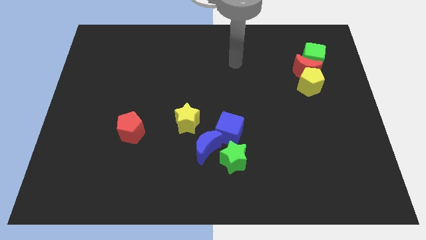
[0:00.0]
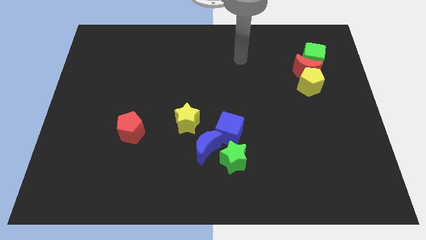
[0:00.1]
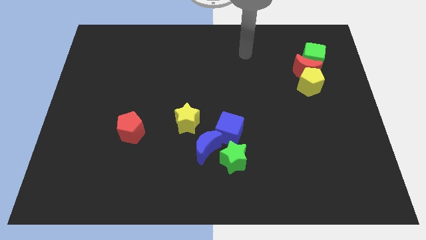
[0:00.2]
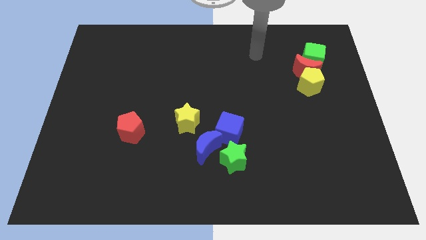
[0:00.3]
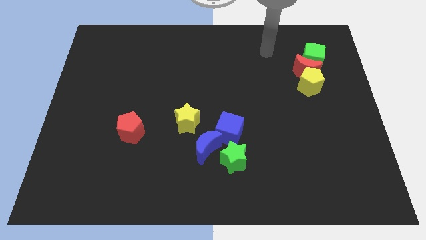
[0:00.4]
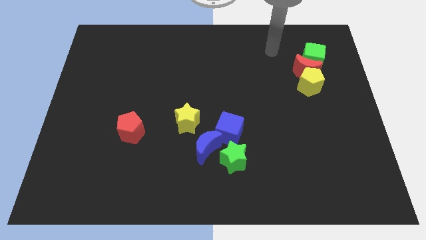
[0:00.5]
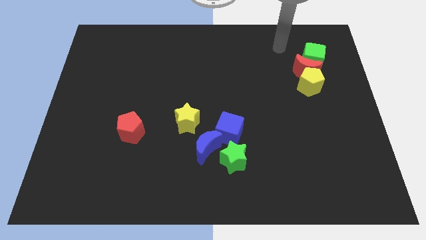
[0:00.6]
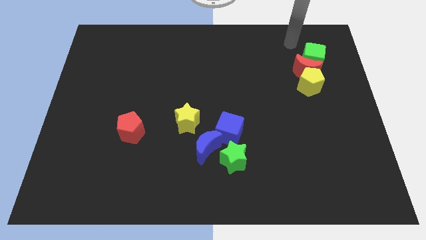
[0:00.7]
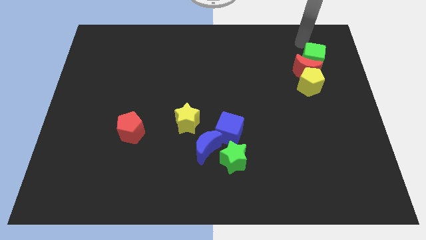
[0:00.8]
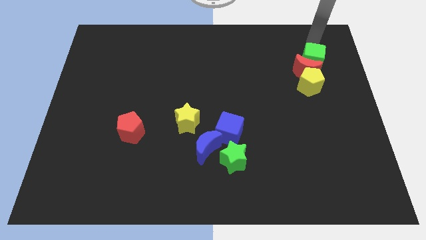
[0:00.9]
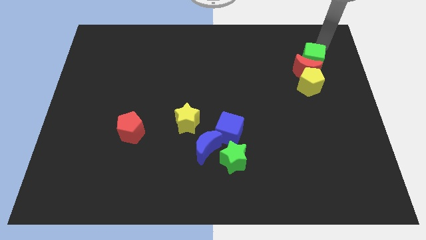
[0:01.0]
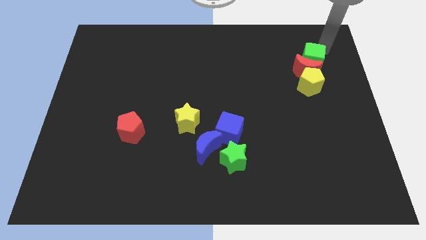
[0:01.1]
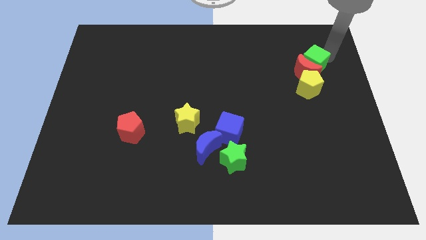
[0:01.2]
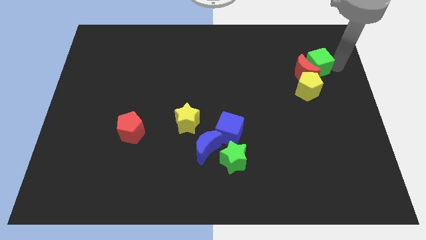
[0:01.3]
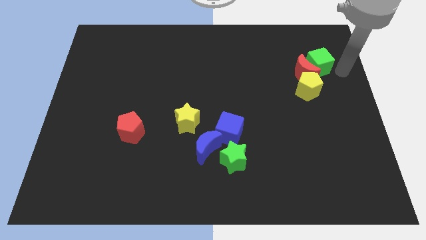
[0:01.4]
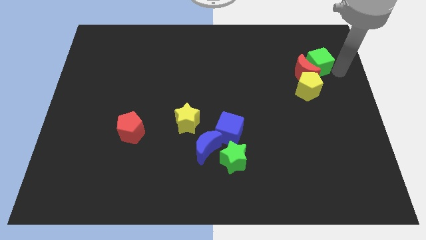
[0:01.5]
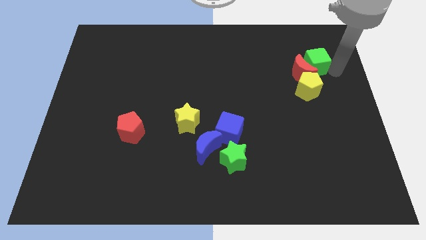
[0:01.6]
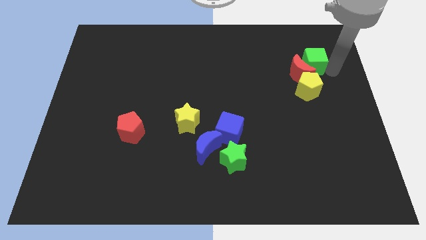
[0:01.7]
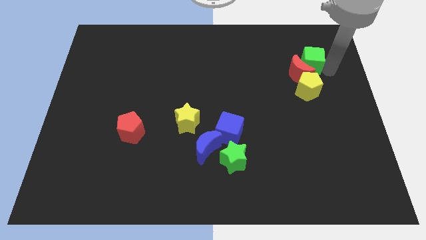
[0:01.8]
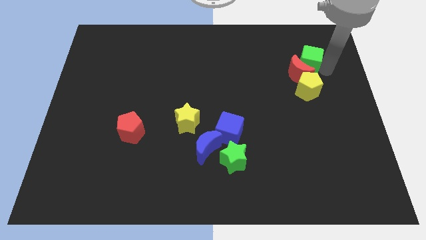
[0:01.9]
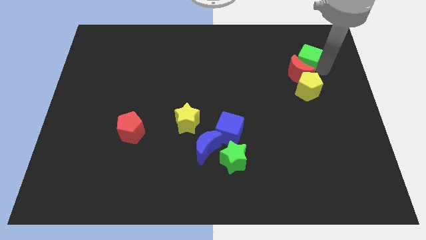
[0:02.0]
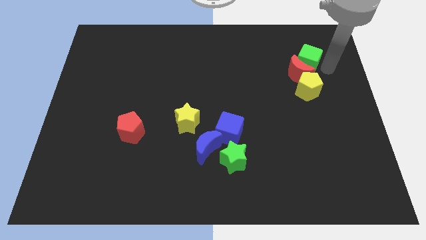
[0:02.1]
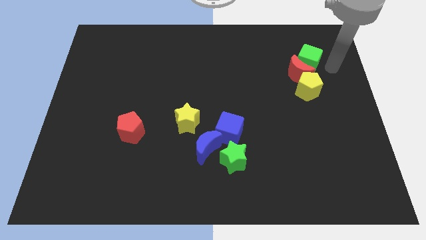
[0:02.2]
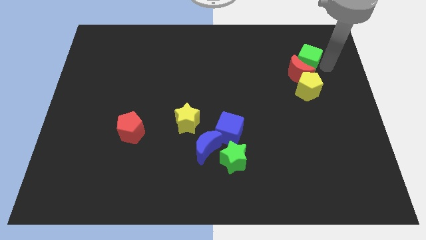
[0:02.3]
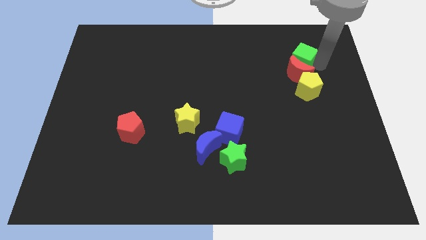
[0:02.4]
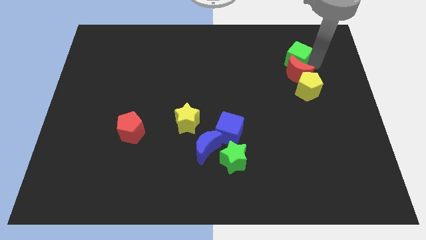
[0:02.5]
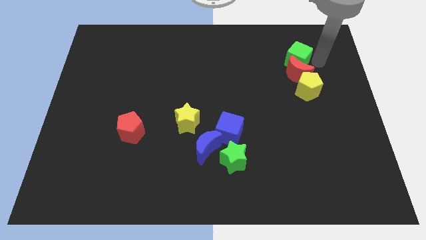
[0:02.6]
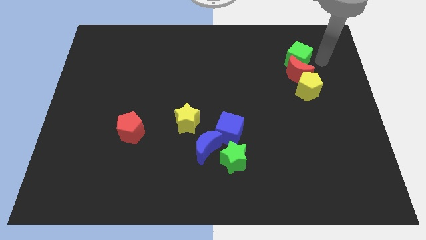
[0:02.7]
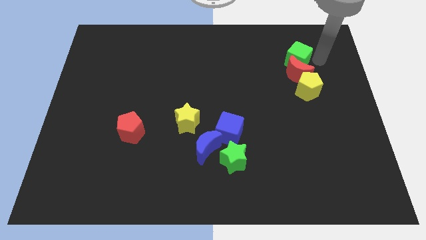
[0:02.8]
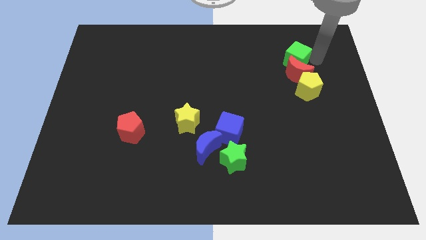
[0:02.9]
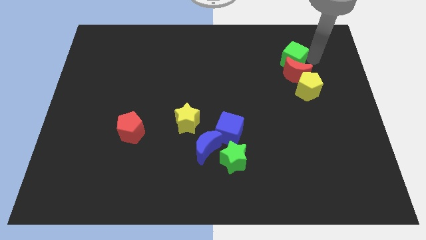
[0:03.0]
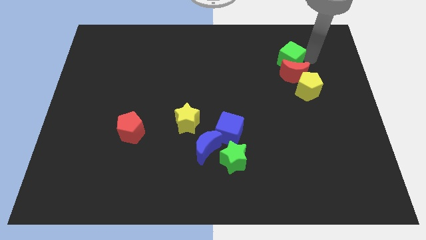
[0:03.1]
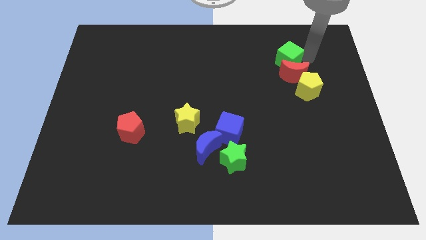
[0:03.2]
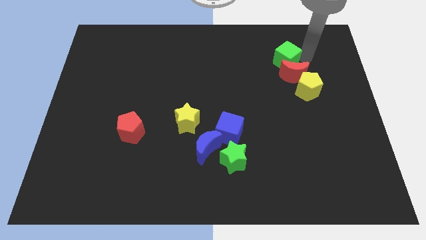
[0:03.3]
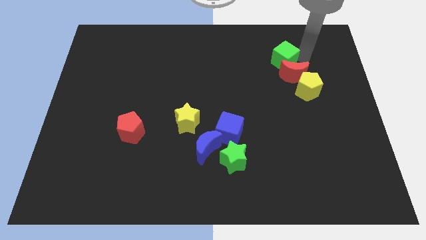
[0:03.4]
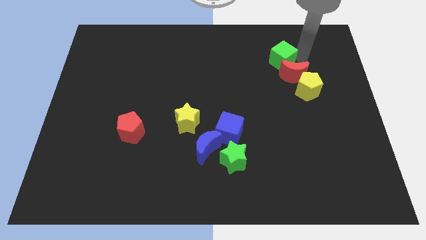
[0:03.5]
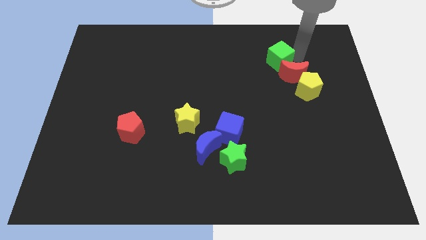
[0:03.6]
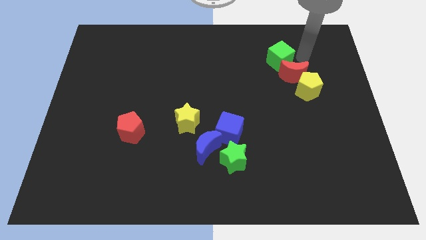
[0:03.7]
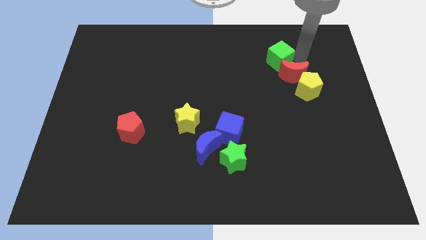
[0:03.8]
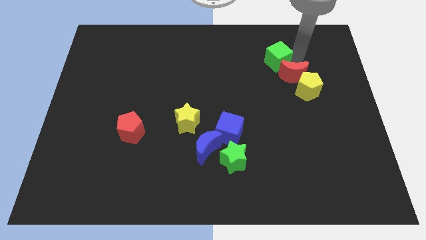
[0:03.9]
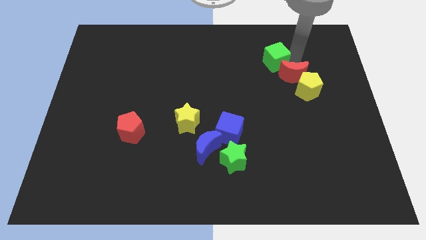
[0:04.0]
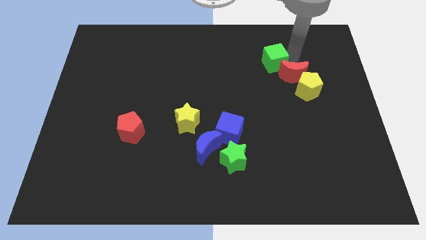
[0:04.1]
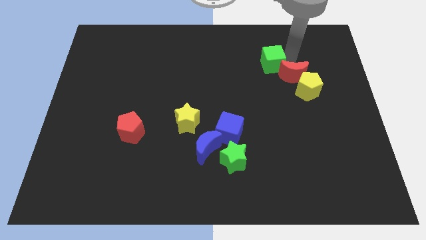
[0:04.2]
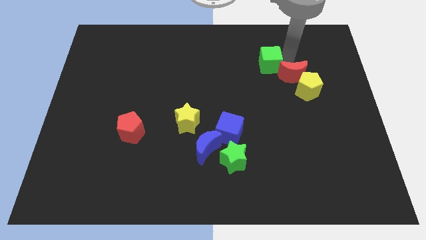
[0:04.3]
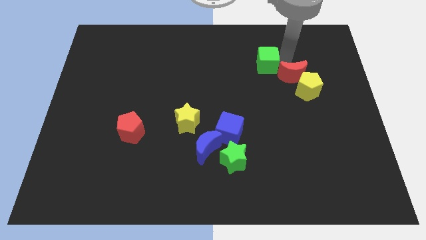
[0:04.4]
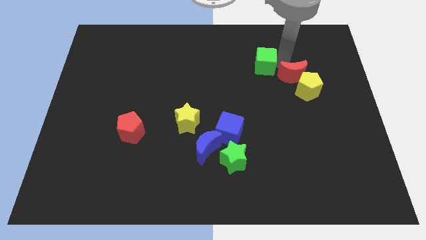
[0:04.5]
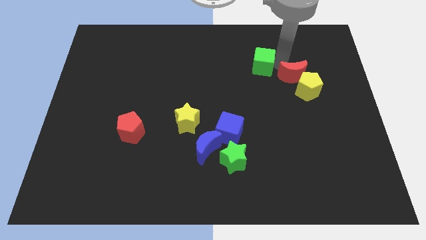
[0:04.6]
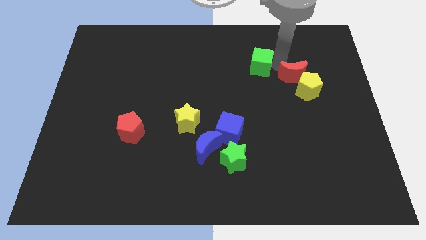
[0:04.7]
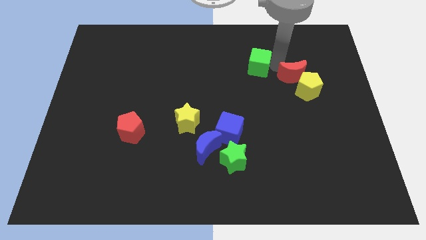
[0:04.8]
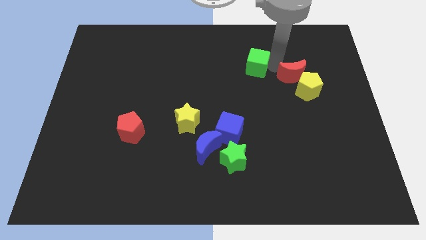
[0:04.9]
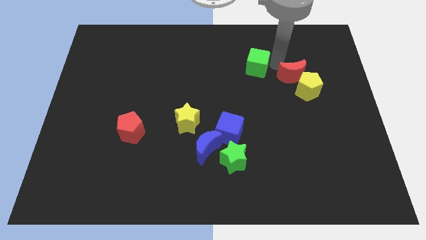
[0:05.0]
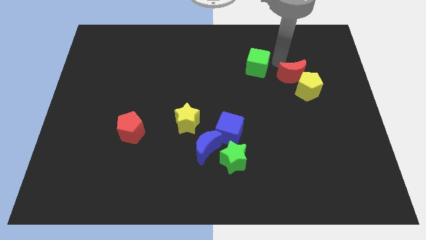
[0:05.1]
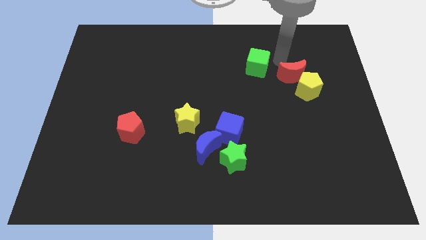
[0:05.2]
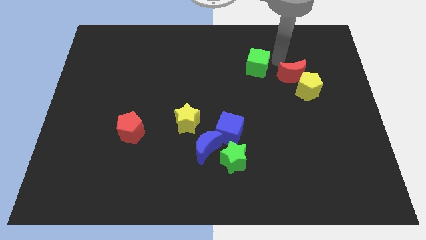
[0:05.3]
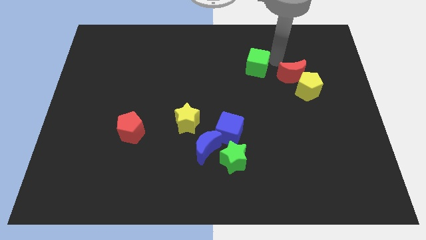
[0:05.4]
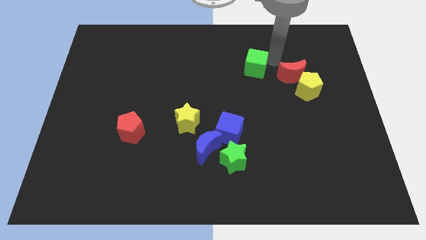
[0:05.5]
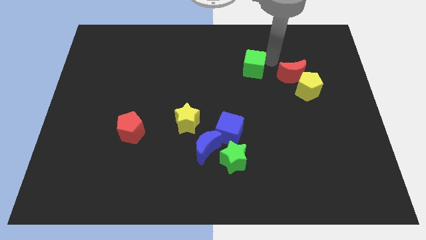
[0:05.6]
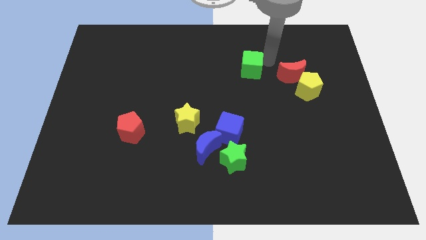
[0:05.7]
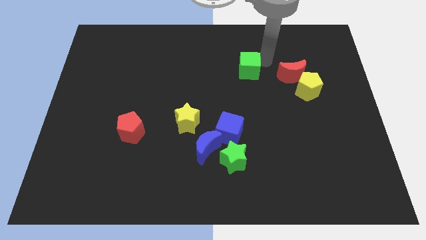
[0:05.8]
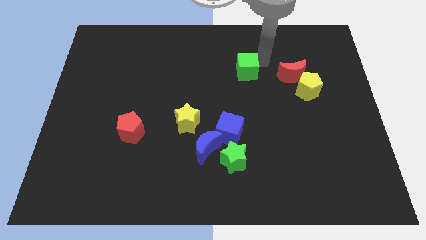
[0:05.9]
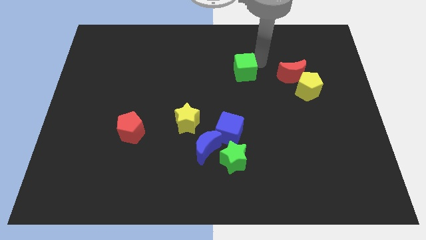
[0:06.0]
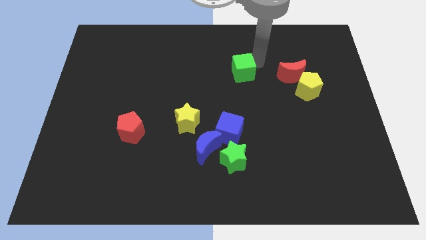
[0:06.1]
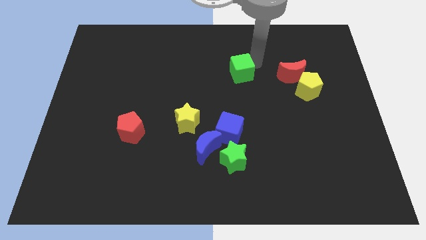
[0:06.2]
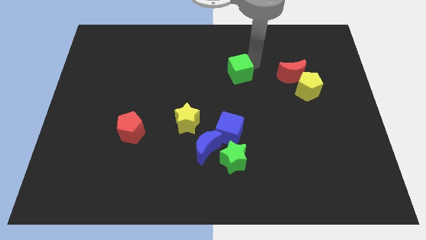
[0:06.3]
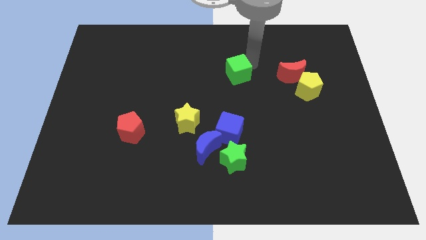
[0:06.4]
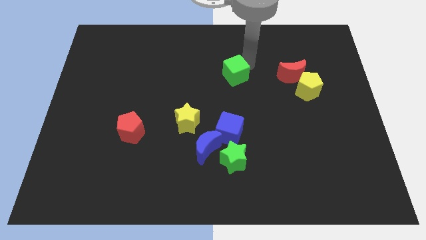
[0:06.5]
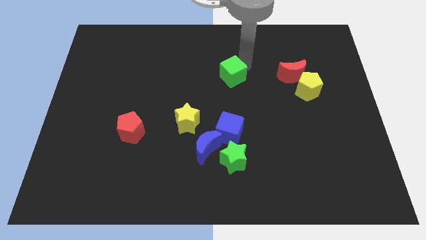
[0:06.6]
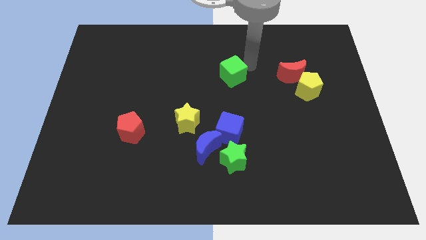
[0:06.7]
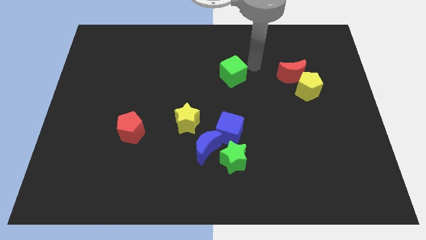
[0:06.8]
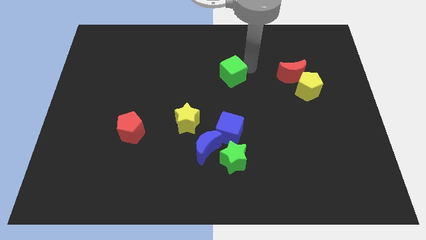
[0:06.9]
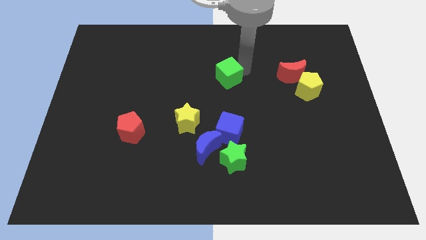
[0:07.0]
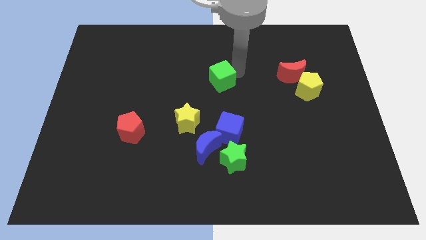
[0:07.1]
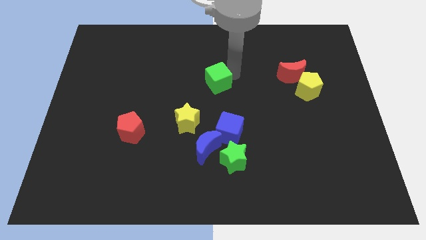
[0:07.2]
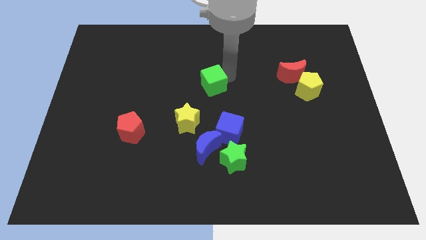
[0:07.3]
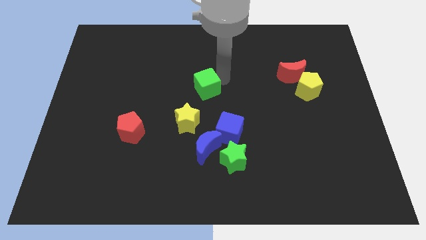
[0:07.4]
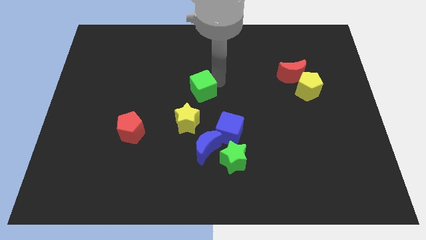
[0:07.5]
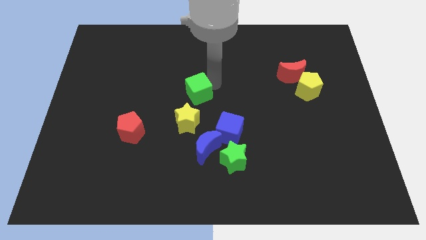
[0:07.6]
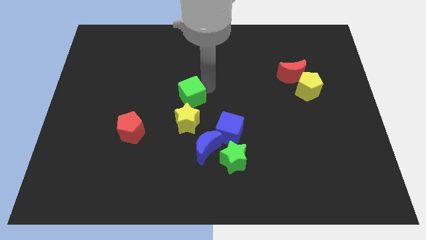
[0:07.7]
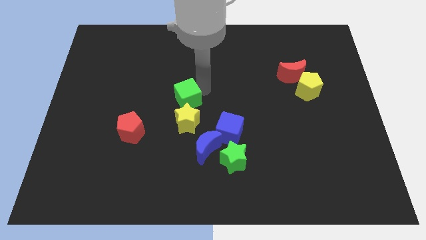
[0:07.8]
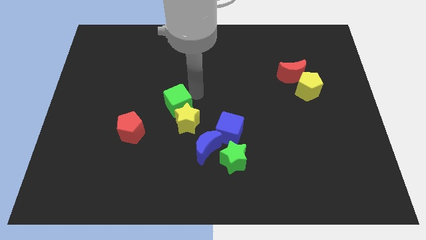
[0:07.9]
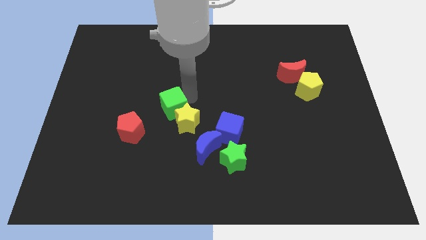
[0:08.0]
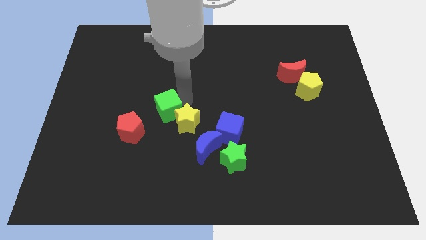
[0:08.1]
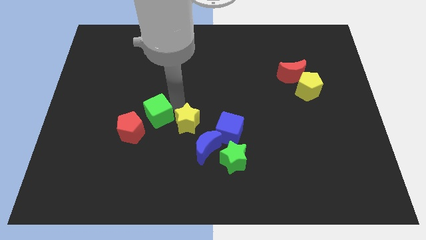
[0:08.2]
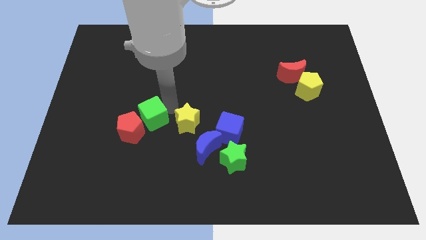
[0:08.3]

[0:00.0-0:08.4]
push the green cube towards the red pentagon

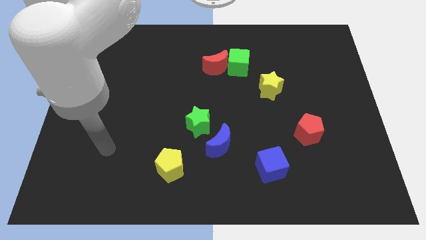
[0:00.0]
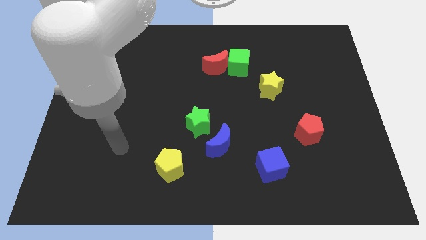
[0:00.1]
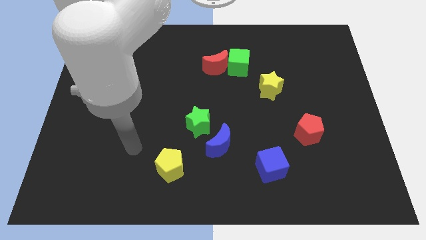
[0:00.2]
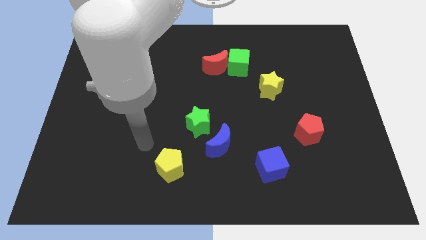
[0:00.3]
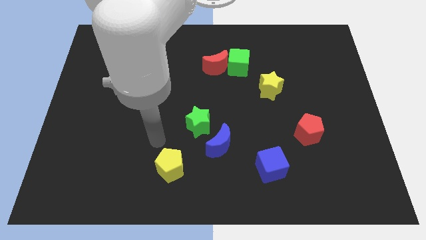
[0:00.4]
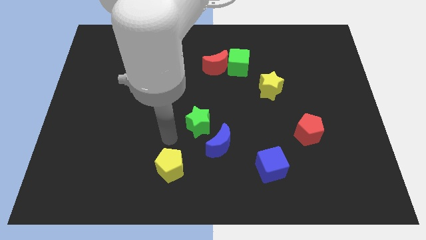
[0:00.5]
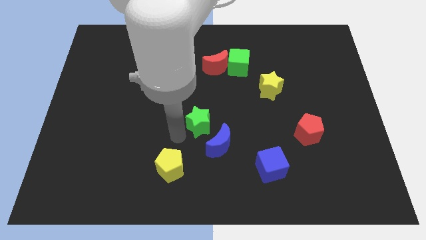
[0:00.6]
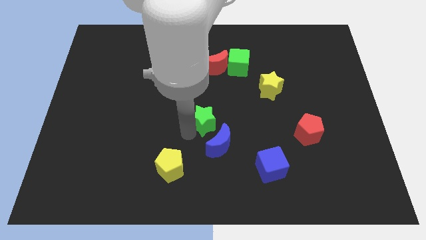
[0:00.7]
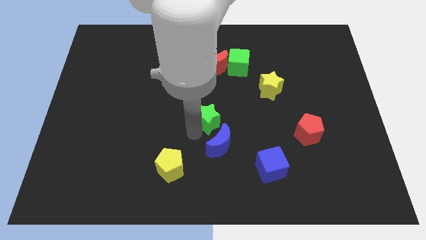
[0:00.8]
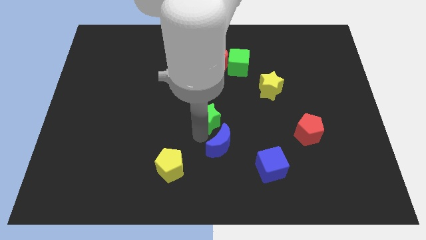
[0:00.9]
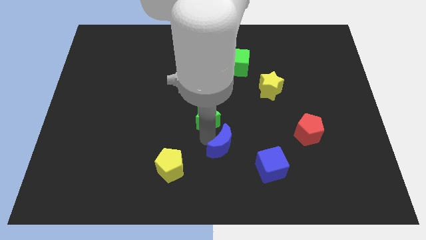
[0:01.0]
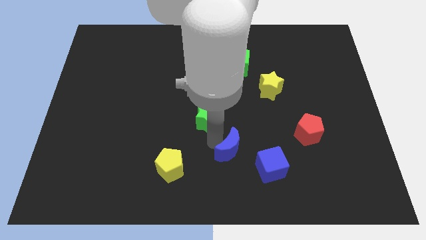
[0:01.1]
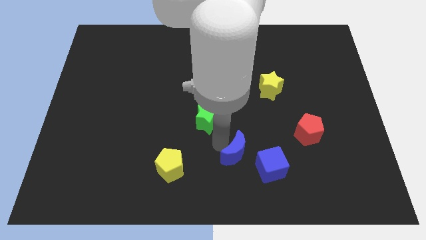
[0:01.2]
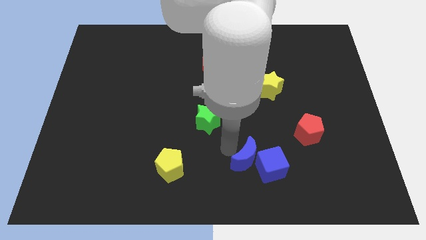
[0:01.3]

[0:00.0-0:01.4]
put the blue moon next to the blue cube
